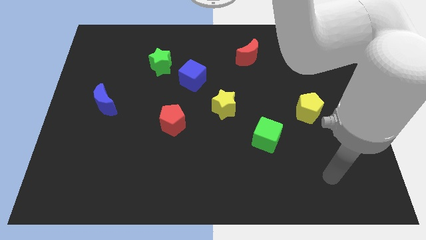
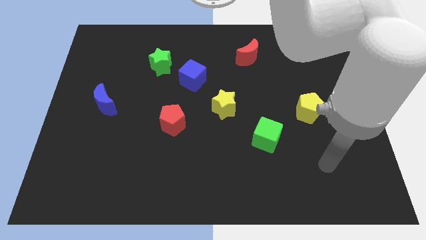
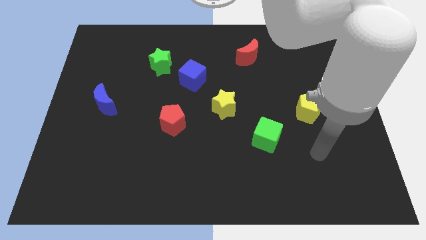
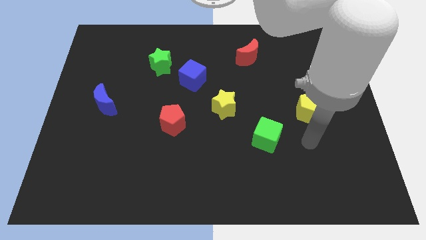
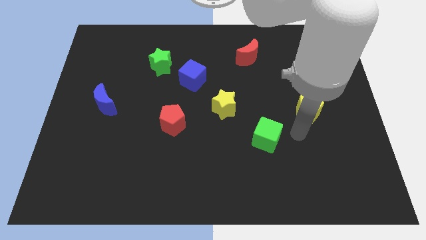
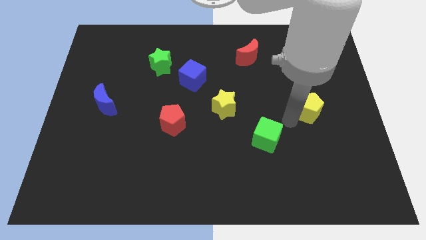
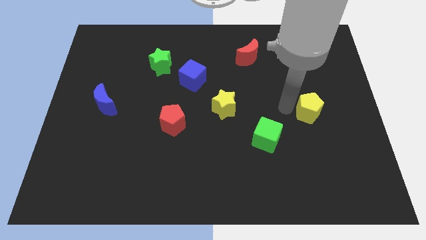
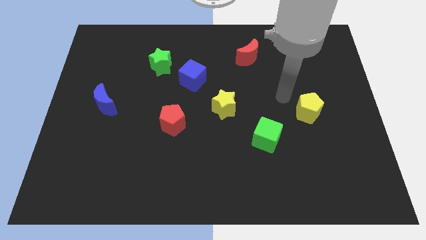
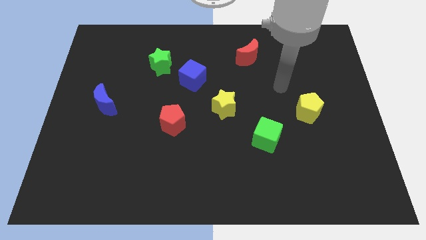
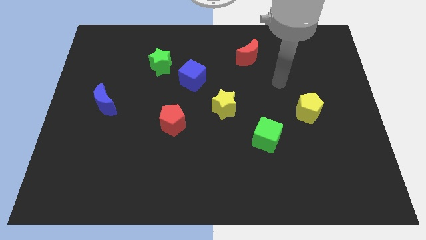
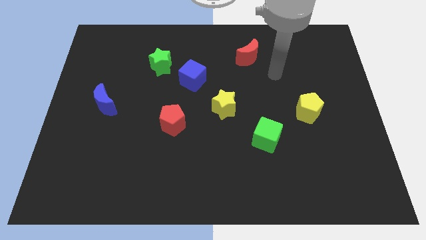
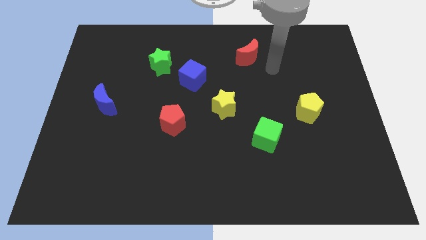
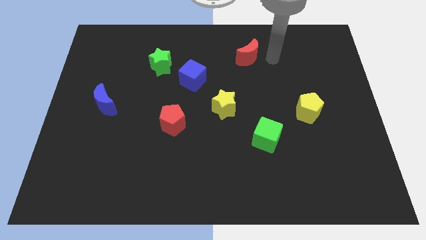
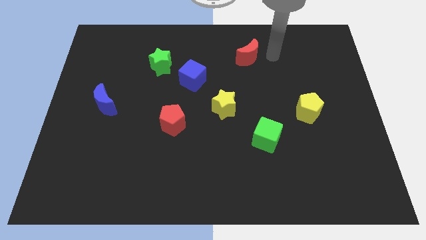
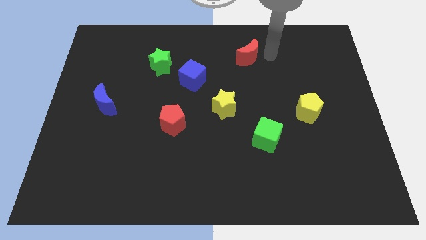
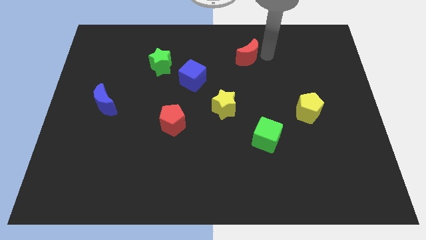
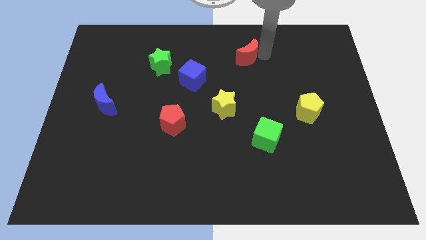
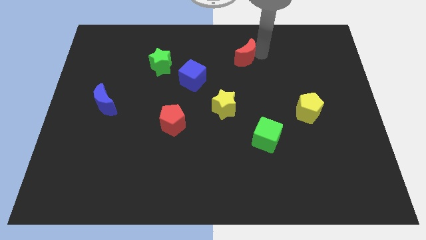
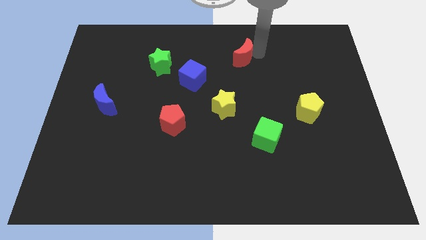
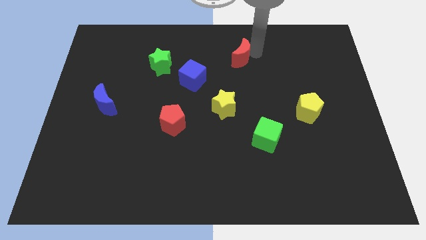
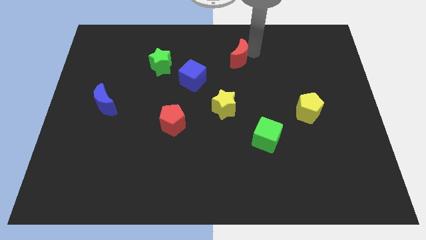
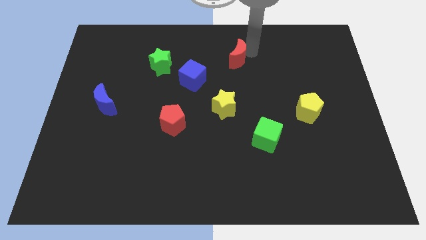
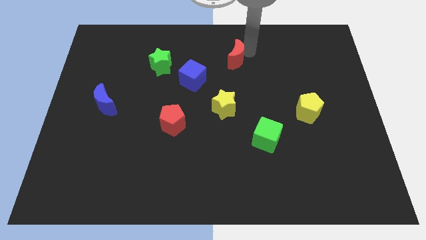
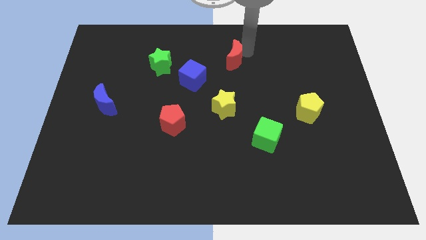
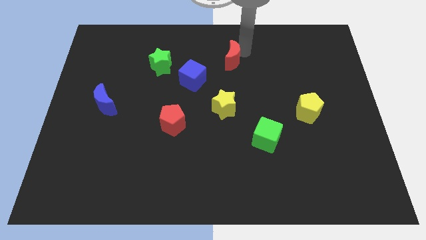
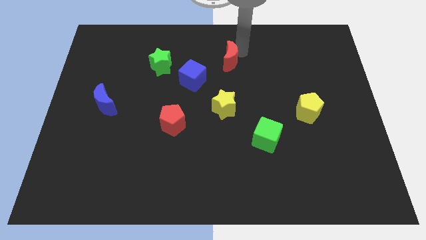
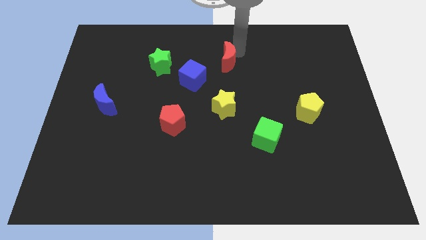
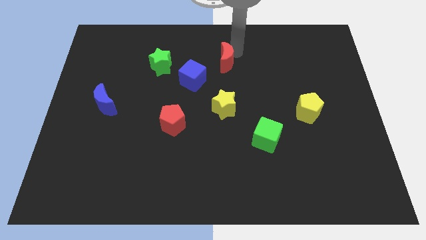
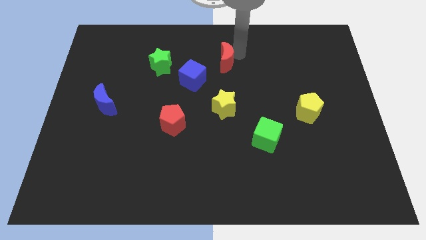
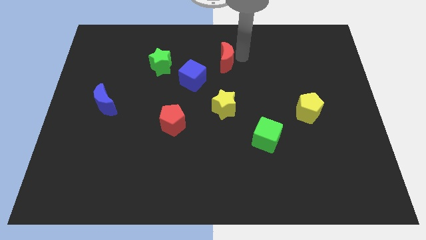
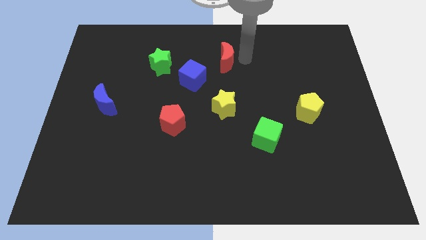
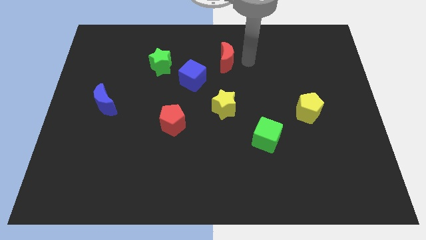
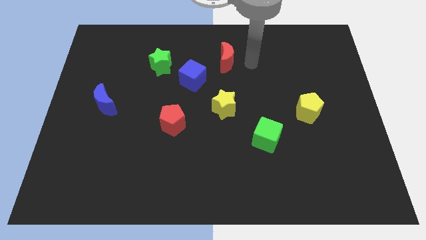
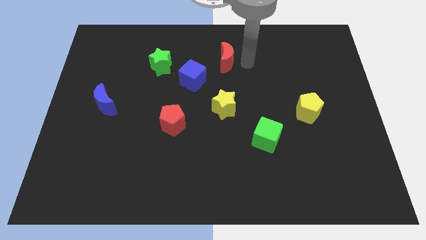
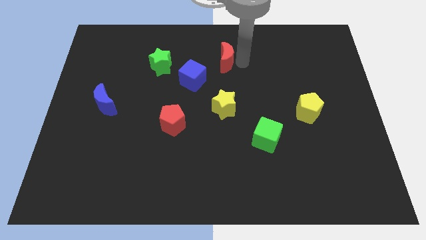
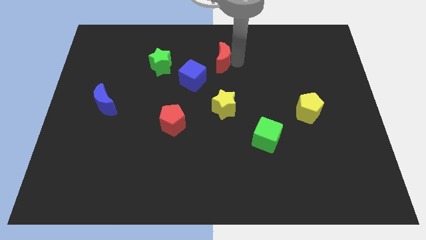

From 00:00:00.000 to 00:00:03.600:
slide the red moon left somewhat

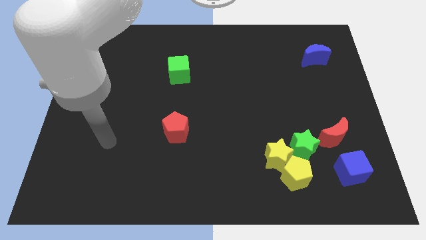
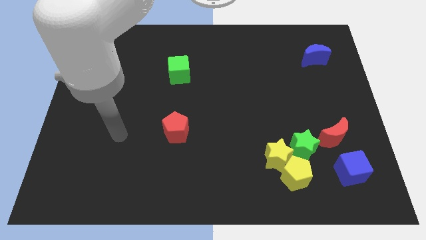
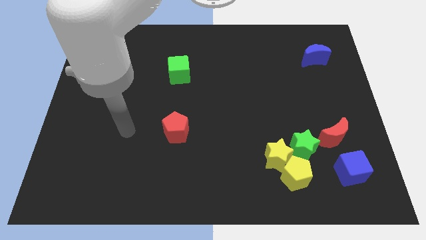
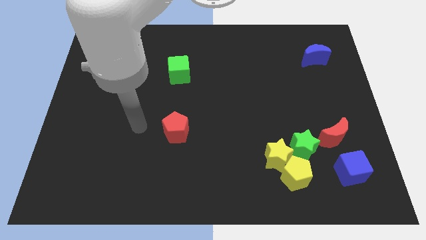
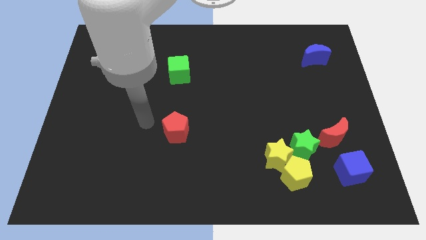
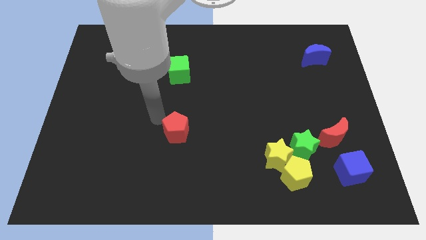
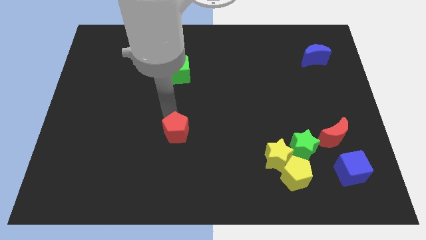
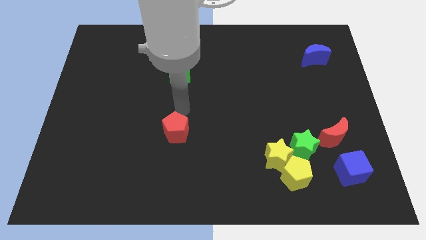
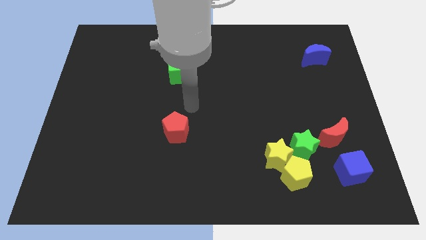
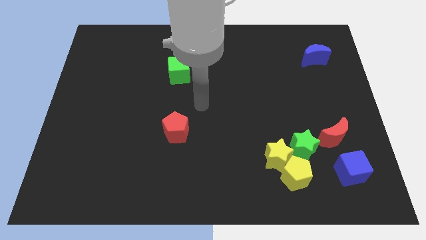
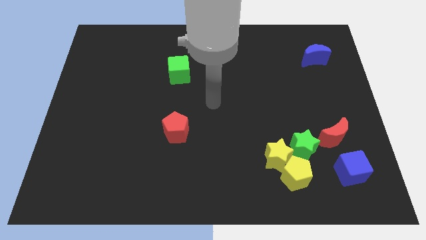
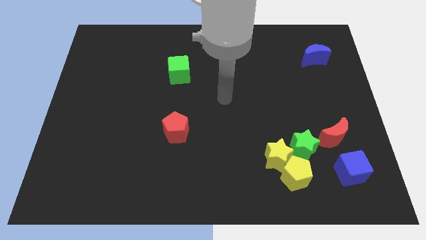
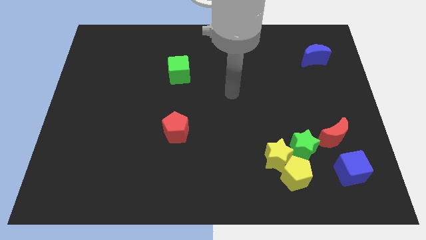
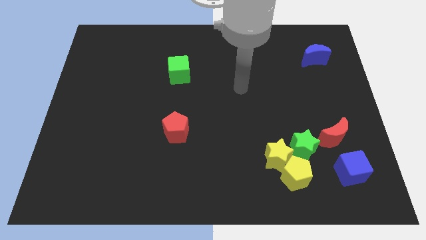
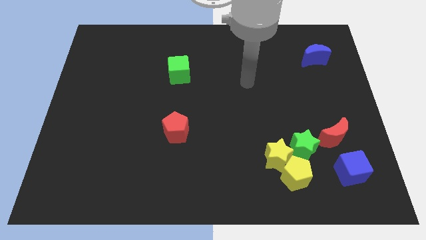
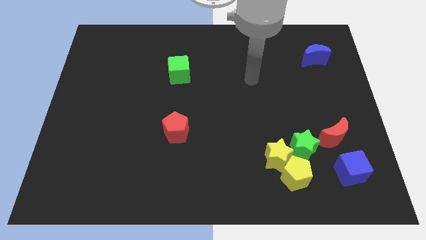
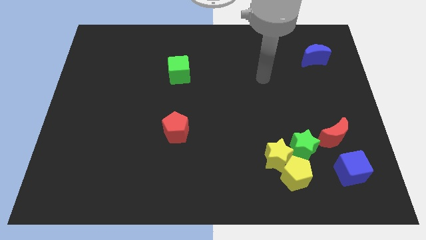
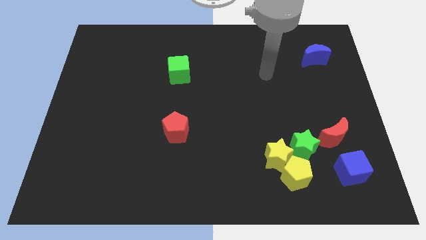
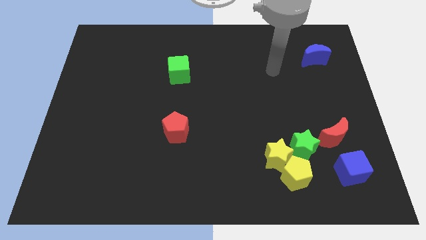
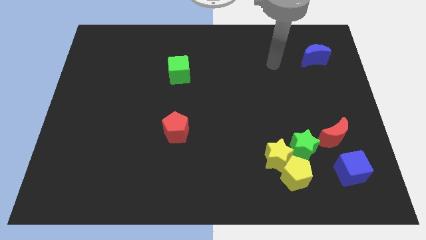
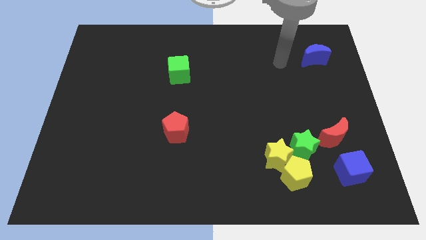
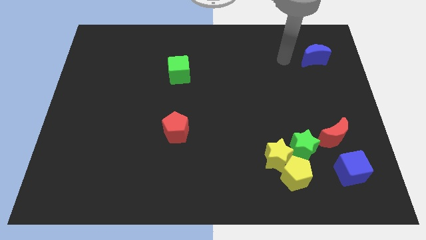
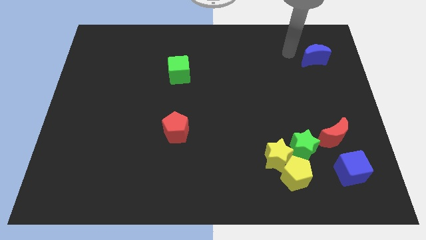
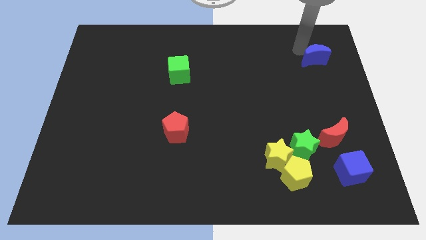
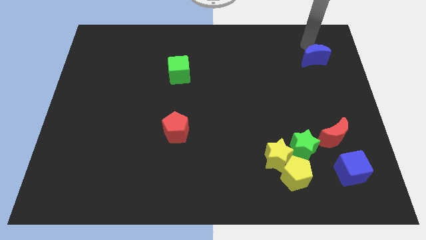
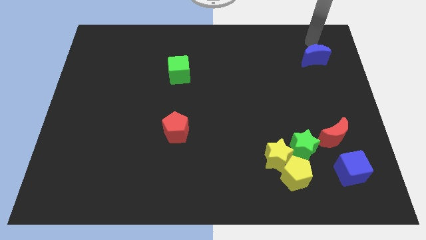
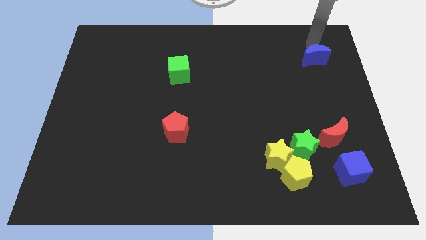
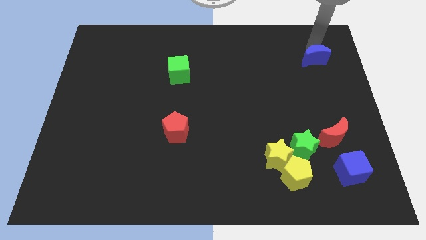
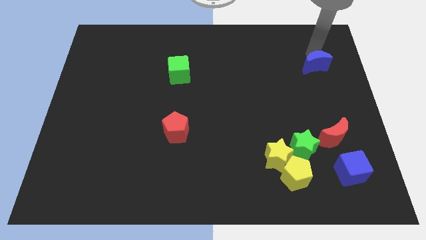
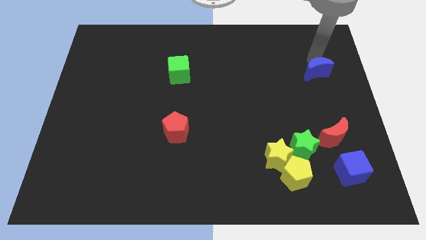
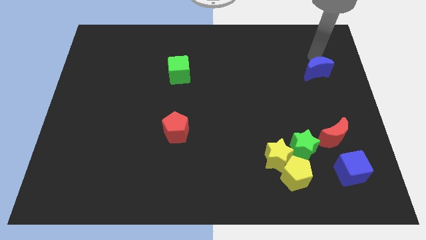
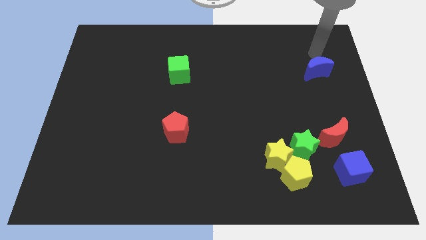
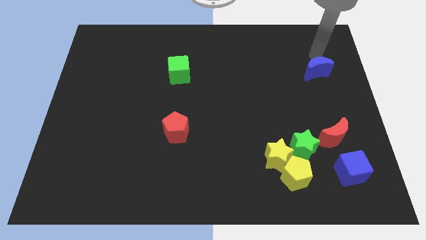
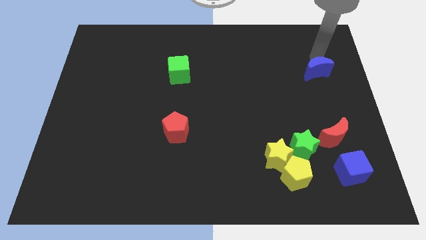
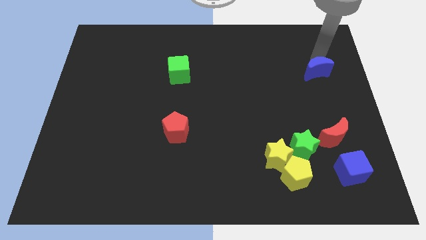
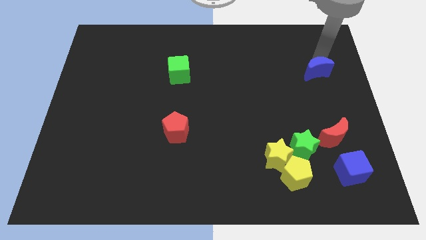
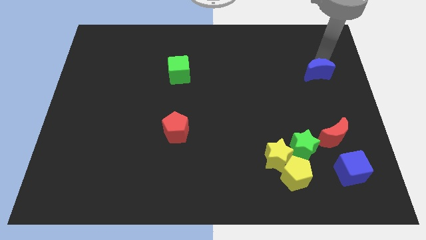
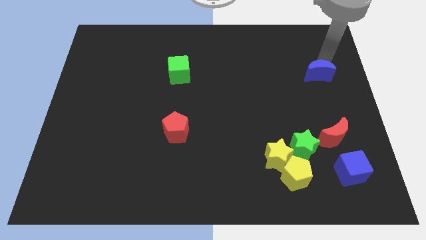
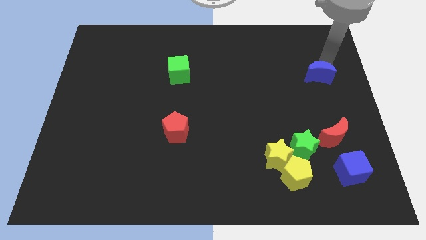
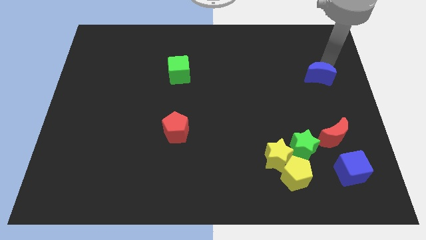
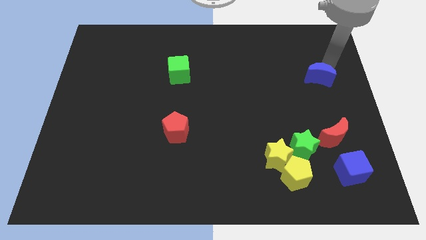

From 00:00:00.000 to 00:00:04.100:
slightly move the blue moon downwards
